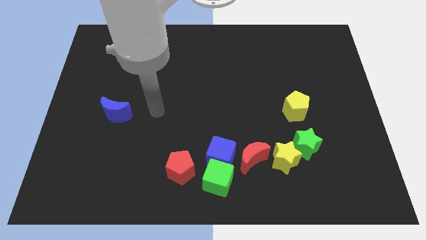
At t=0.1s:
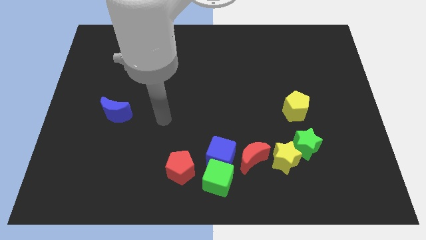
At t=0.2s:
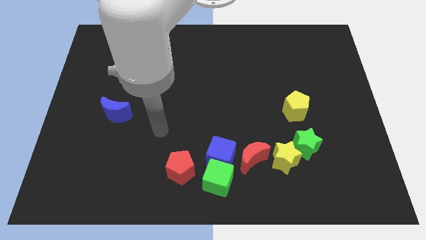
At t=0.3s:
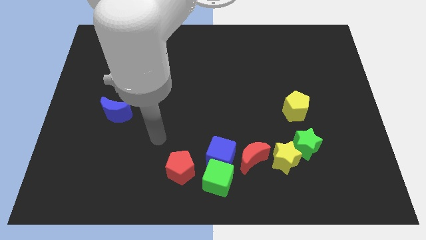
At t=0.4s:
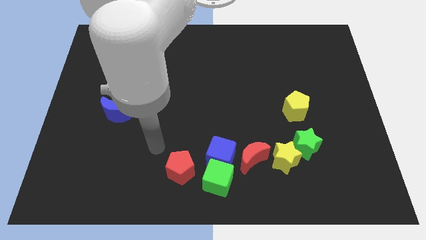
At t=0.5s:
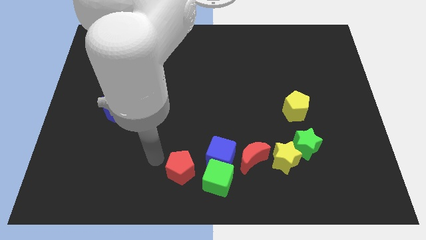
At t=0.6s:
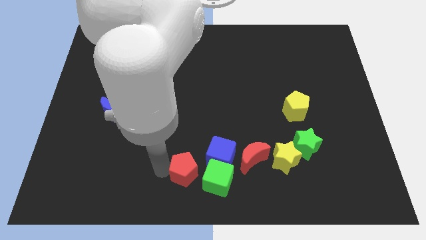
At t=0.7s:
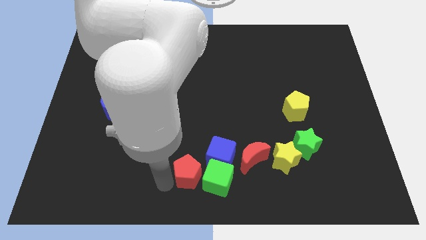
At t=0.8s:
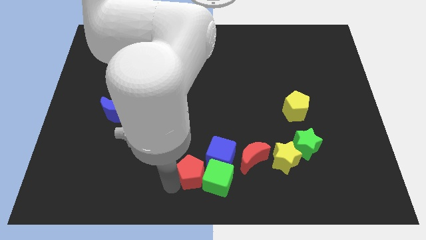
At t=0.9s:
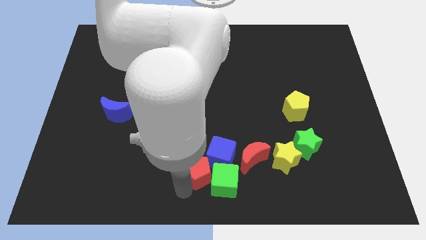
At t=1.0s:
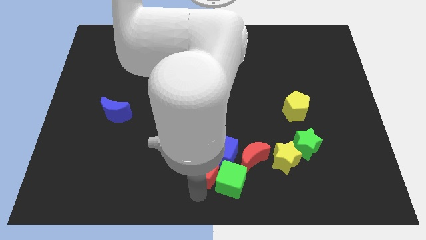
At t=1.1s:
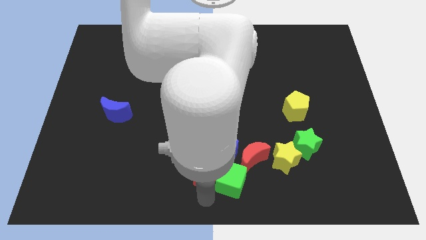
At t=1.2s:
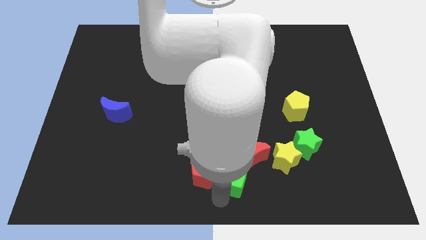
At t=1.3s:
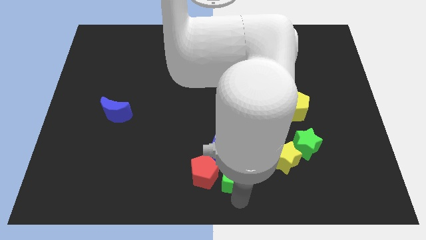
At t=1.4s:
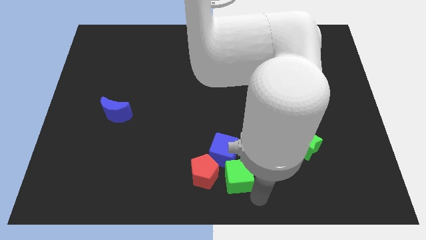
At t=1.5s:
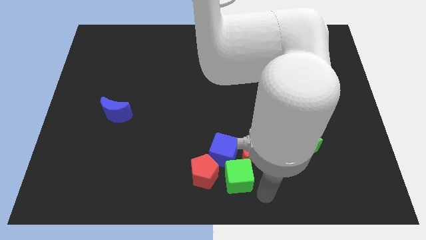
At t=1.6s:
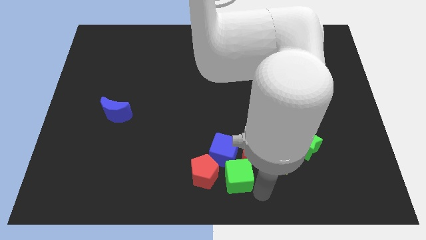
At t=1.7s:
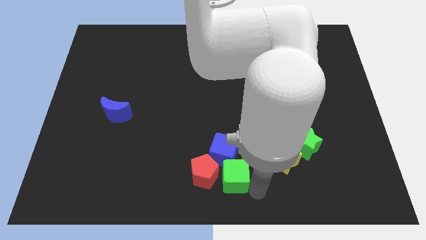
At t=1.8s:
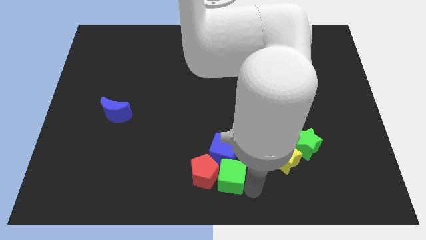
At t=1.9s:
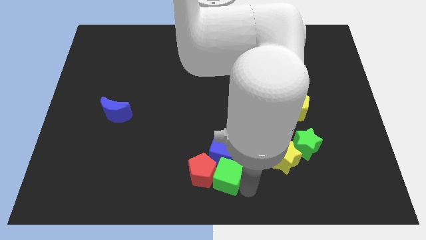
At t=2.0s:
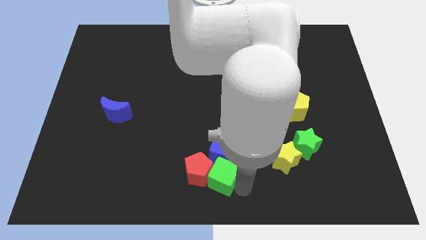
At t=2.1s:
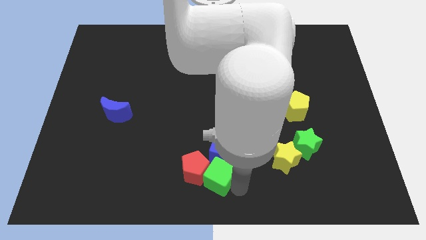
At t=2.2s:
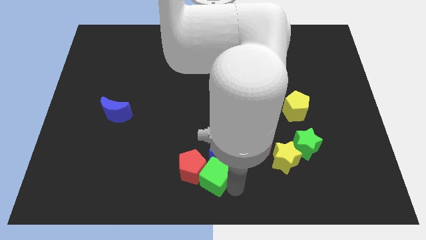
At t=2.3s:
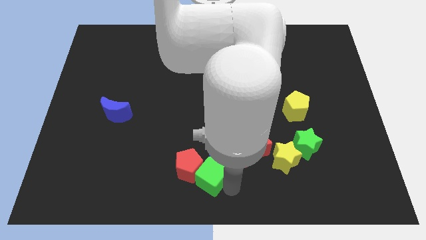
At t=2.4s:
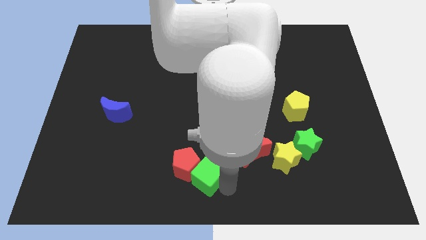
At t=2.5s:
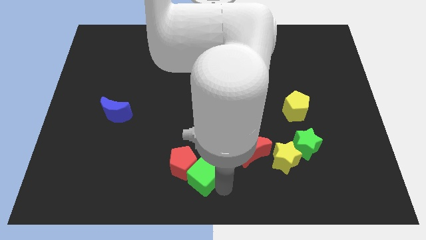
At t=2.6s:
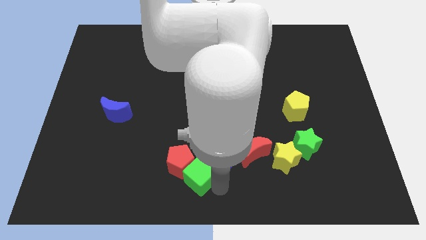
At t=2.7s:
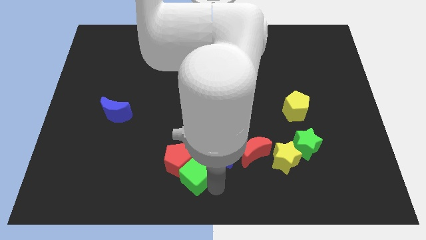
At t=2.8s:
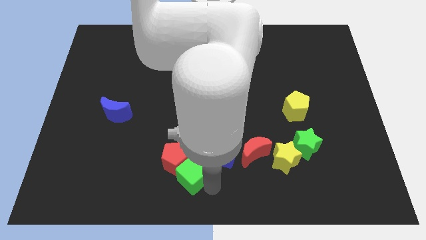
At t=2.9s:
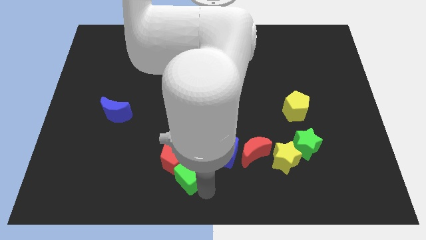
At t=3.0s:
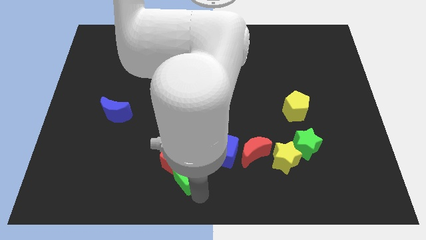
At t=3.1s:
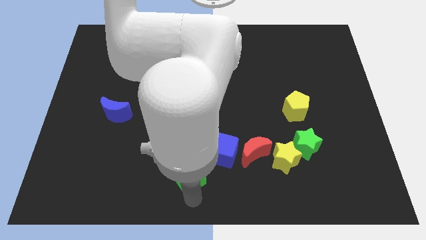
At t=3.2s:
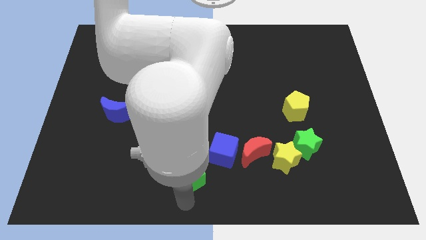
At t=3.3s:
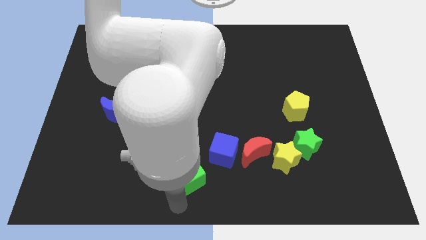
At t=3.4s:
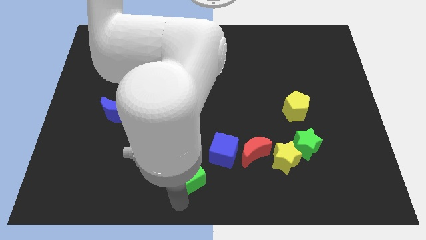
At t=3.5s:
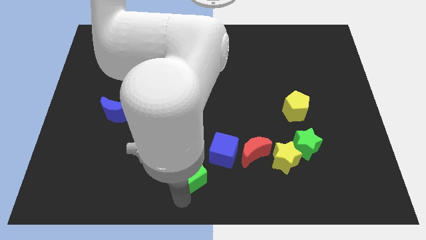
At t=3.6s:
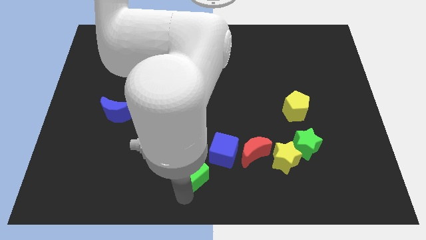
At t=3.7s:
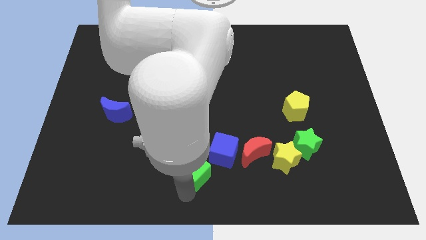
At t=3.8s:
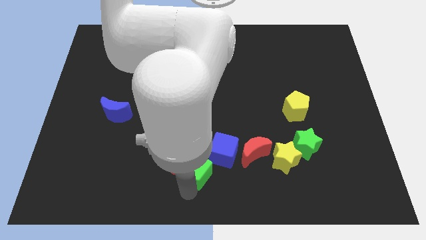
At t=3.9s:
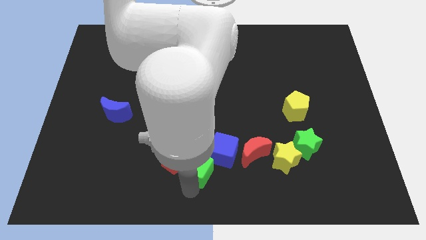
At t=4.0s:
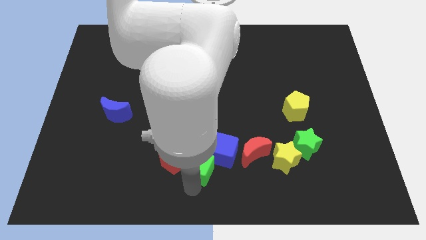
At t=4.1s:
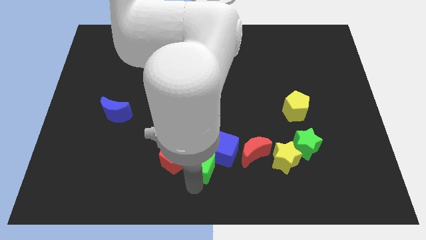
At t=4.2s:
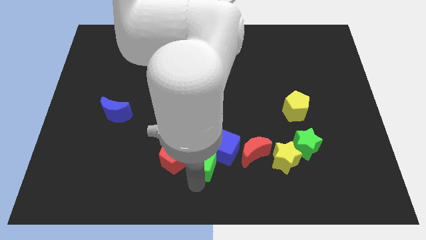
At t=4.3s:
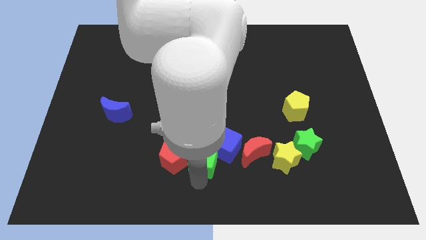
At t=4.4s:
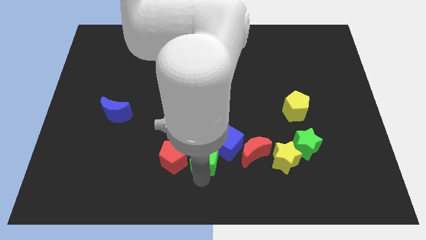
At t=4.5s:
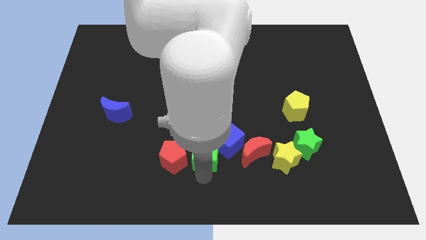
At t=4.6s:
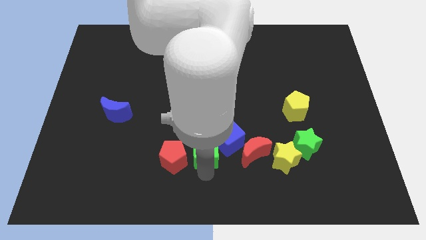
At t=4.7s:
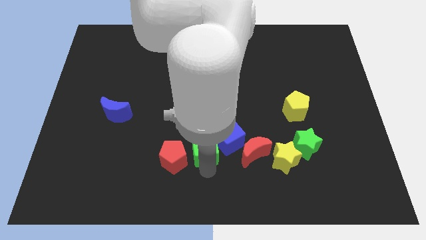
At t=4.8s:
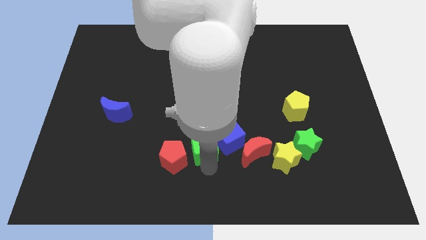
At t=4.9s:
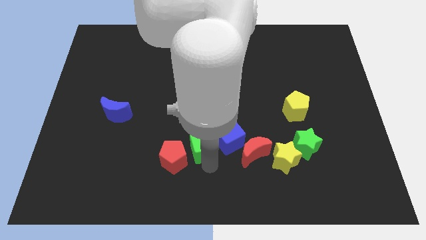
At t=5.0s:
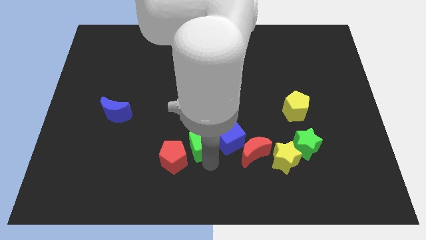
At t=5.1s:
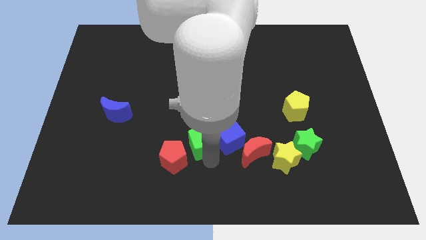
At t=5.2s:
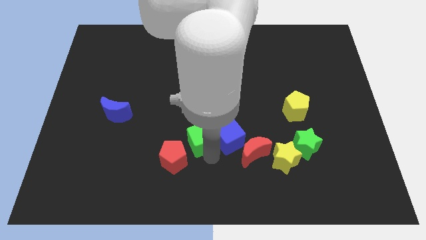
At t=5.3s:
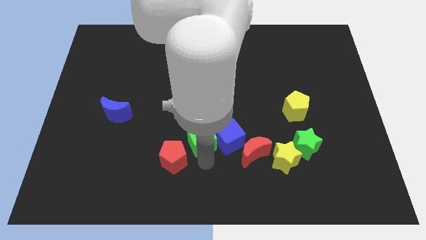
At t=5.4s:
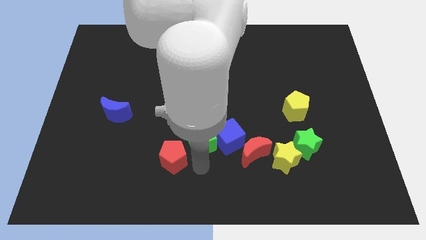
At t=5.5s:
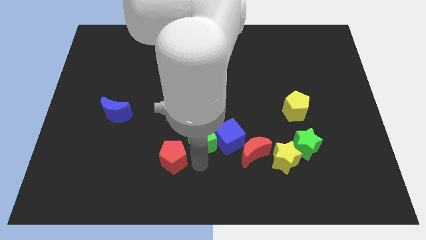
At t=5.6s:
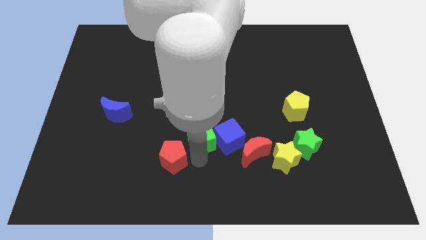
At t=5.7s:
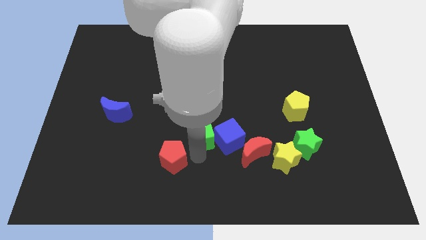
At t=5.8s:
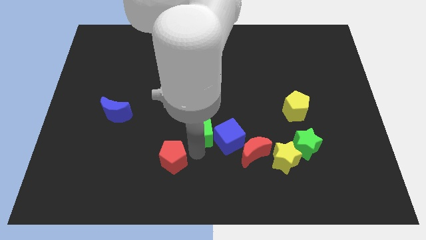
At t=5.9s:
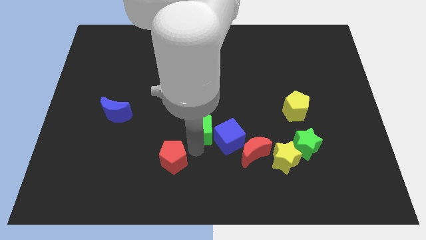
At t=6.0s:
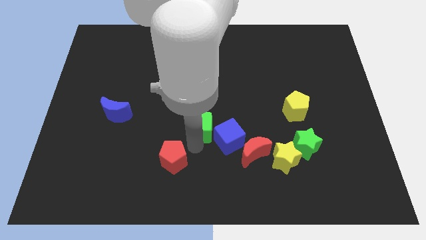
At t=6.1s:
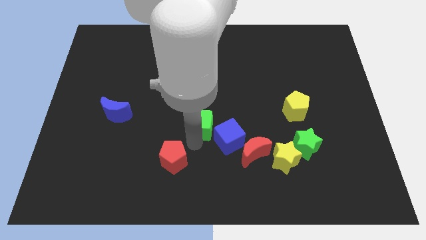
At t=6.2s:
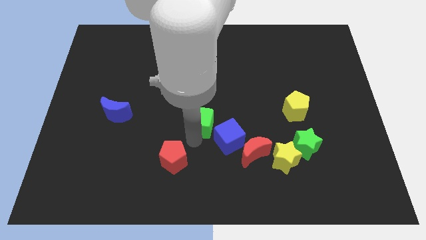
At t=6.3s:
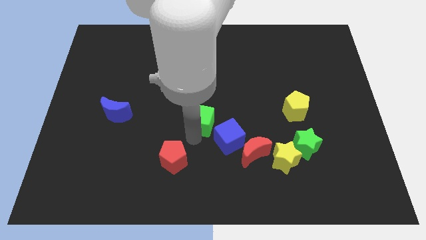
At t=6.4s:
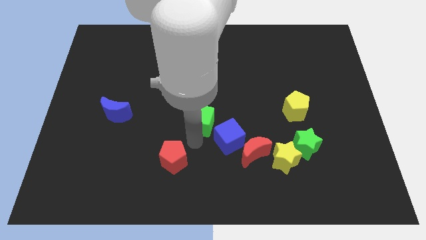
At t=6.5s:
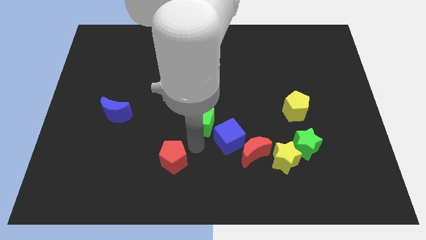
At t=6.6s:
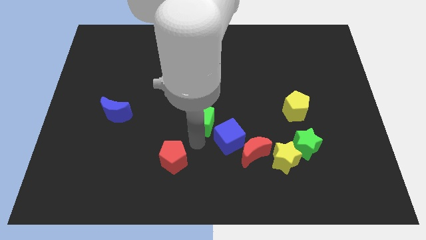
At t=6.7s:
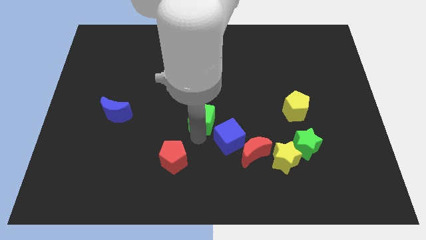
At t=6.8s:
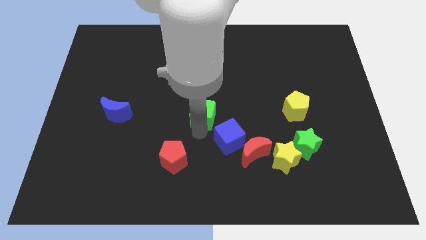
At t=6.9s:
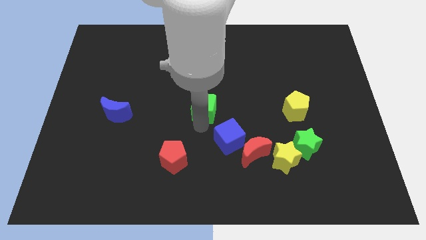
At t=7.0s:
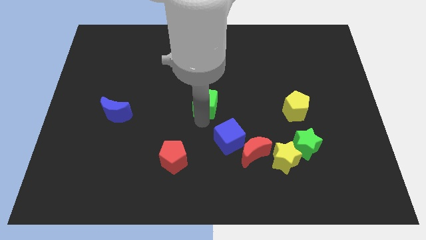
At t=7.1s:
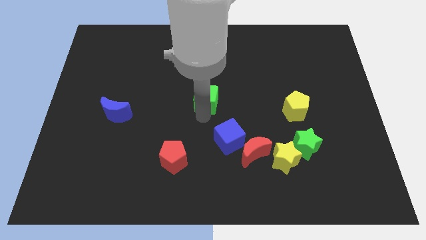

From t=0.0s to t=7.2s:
slide the green cube upwards

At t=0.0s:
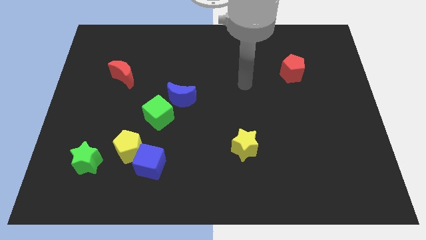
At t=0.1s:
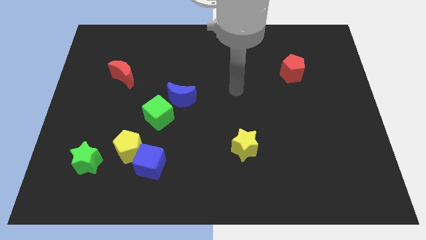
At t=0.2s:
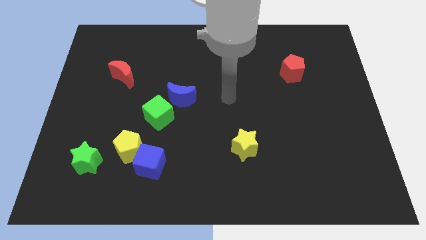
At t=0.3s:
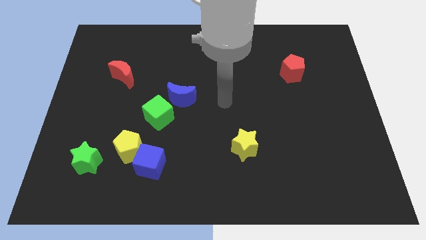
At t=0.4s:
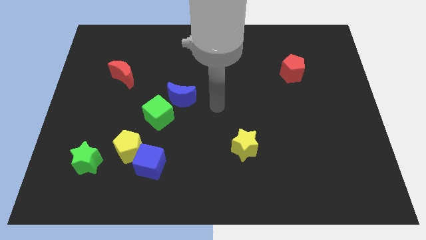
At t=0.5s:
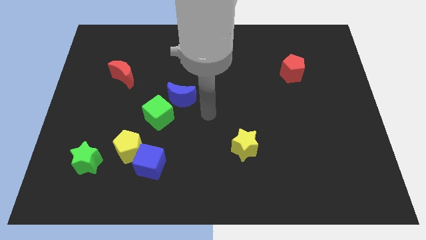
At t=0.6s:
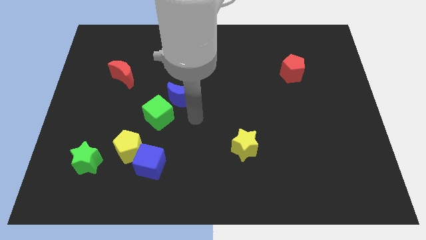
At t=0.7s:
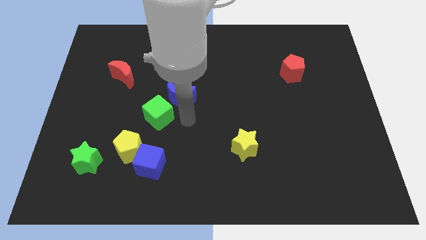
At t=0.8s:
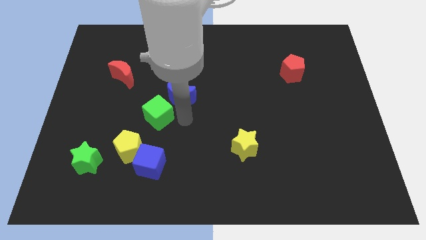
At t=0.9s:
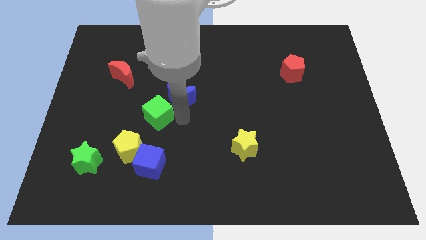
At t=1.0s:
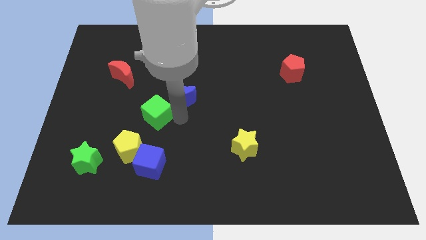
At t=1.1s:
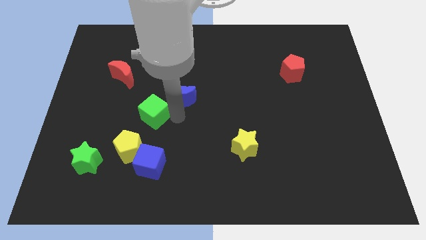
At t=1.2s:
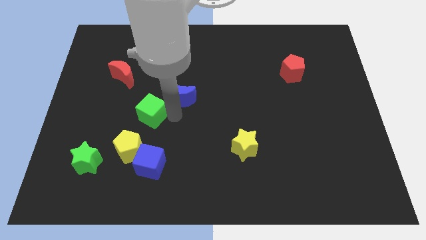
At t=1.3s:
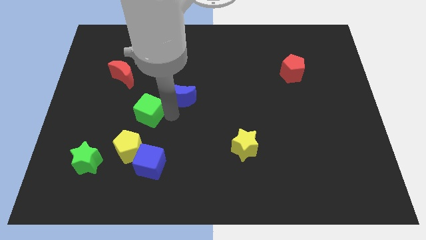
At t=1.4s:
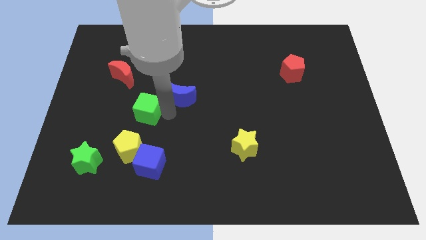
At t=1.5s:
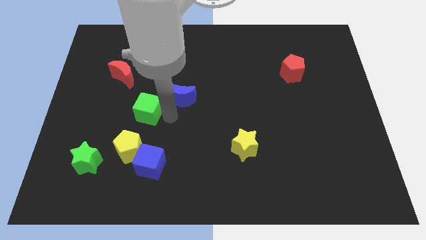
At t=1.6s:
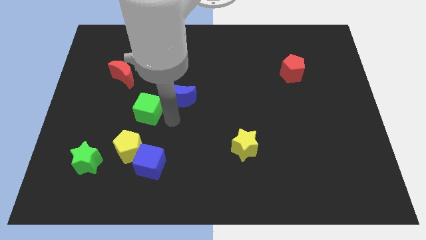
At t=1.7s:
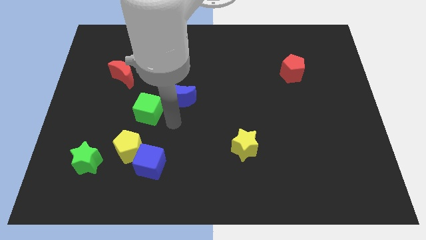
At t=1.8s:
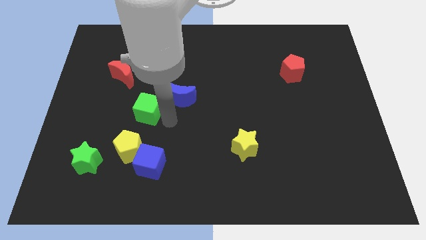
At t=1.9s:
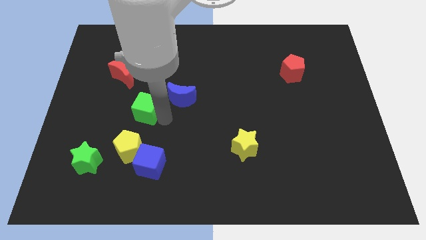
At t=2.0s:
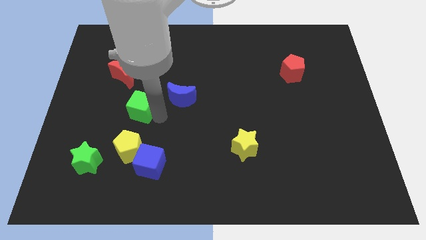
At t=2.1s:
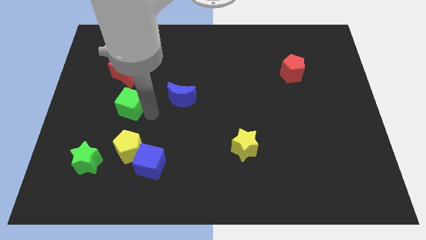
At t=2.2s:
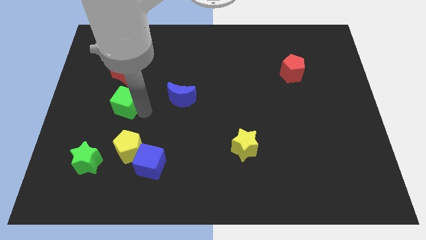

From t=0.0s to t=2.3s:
move the green cube upwards and then left somewhat
